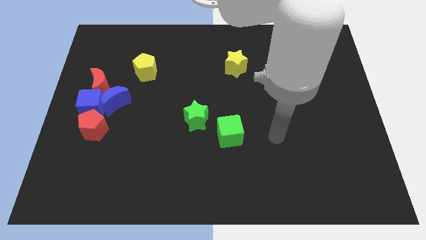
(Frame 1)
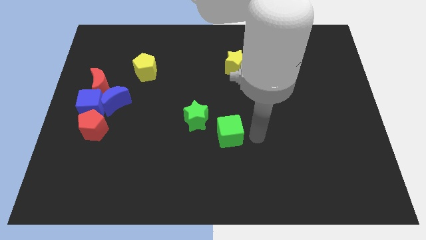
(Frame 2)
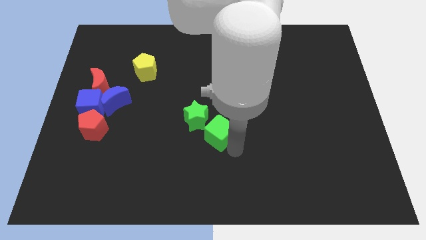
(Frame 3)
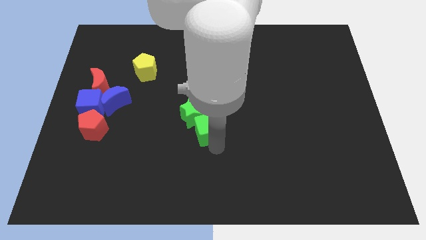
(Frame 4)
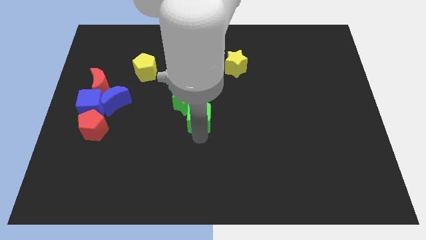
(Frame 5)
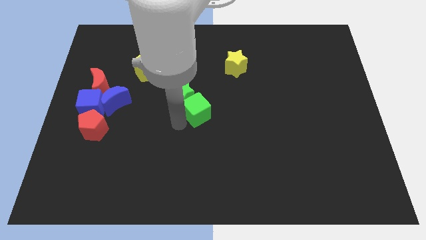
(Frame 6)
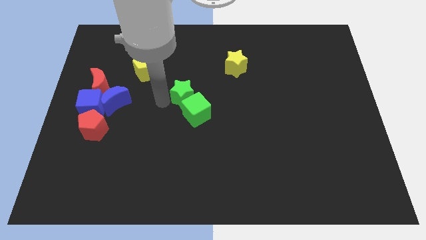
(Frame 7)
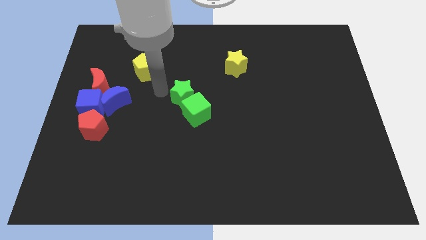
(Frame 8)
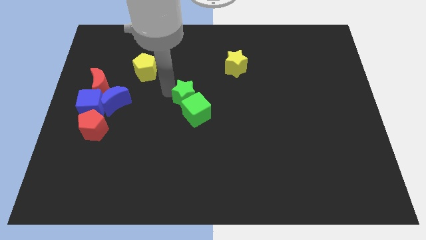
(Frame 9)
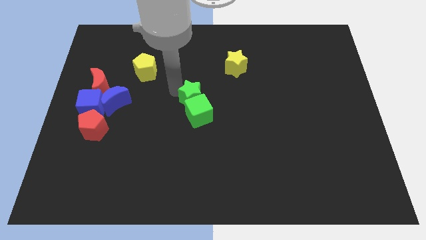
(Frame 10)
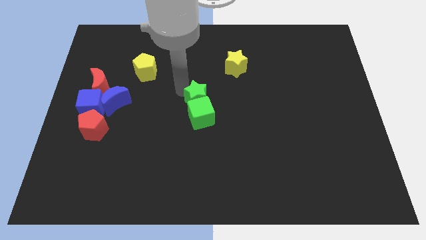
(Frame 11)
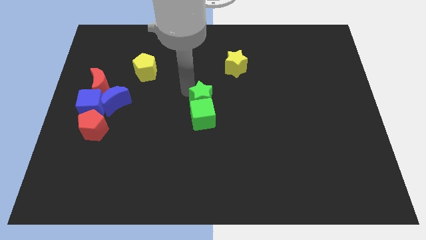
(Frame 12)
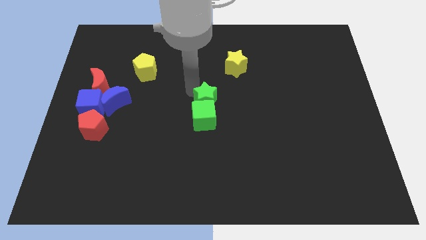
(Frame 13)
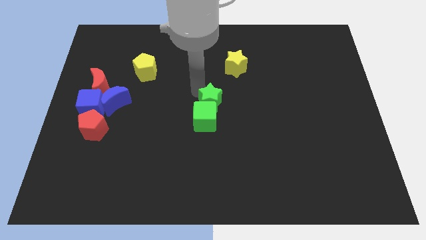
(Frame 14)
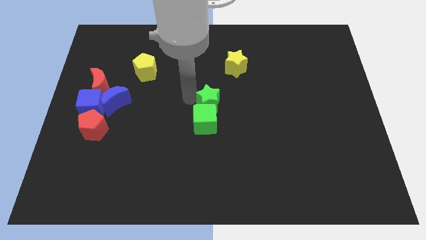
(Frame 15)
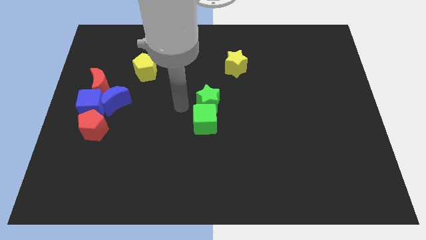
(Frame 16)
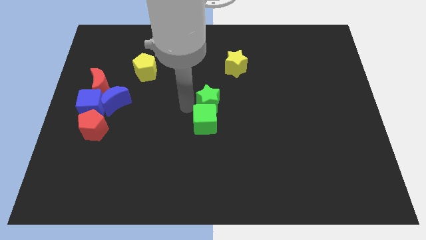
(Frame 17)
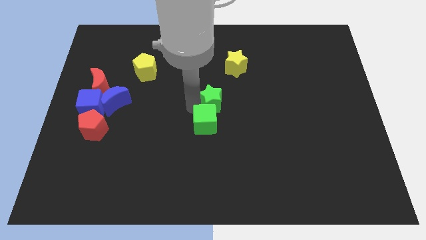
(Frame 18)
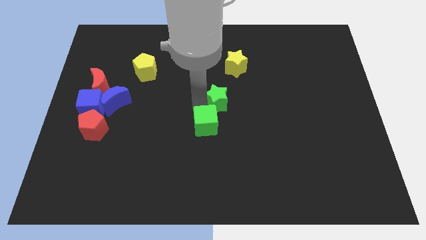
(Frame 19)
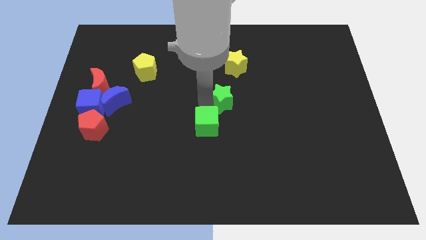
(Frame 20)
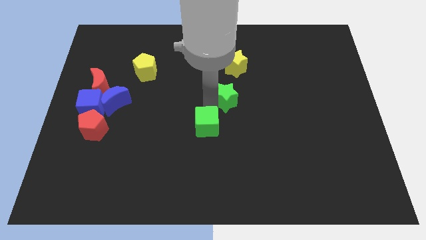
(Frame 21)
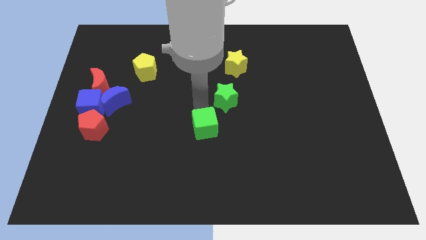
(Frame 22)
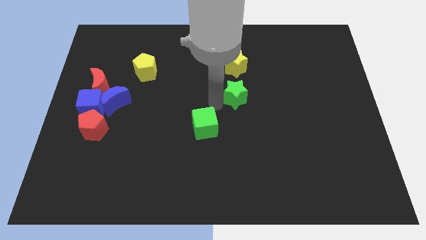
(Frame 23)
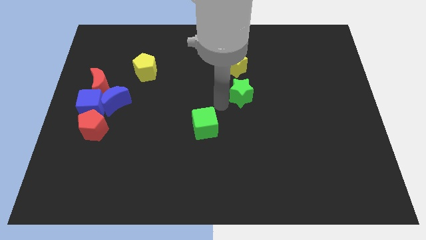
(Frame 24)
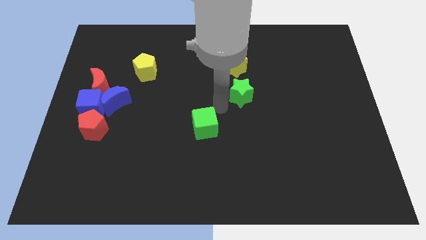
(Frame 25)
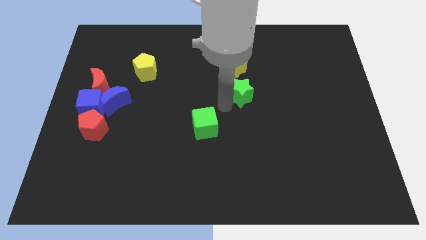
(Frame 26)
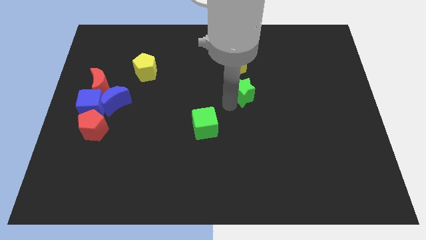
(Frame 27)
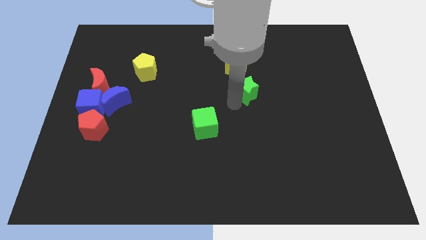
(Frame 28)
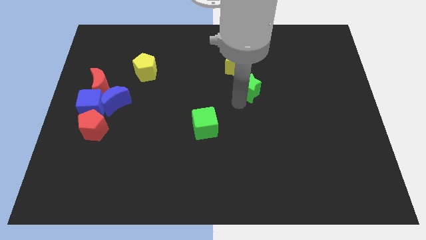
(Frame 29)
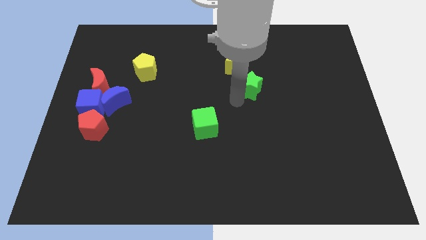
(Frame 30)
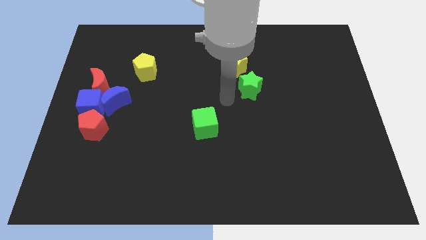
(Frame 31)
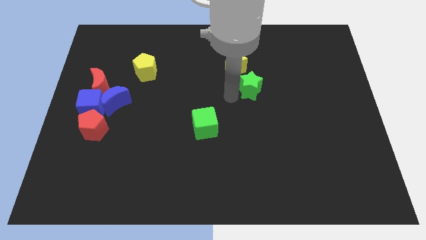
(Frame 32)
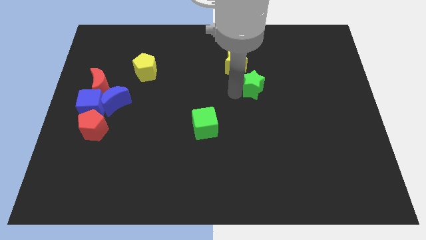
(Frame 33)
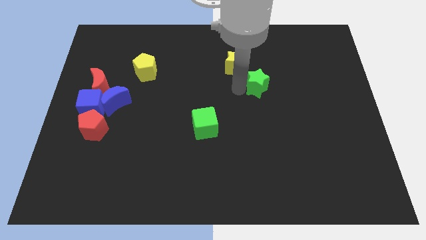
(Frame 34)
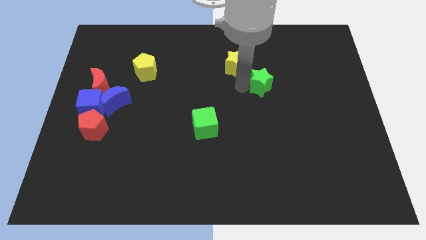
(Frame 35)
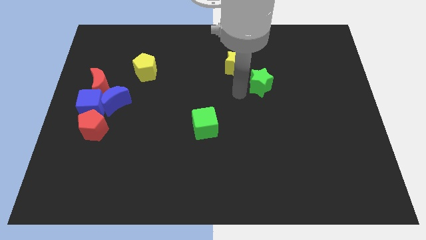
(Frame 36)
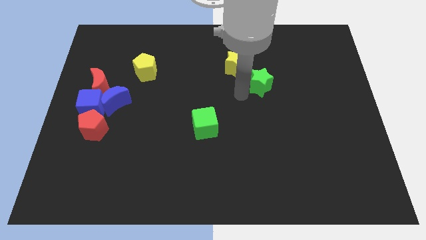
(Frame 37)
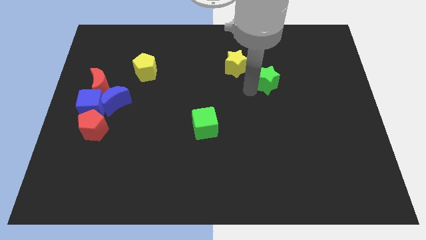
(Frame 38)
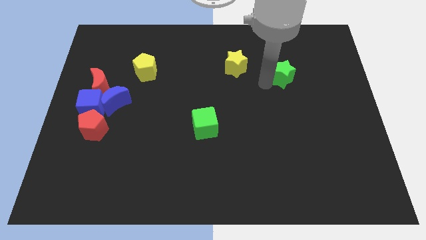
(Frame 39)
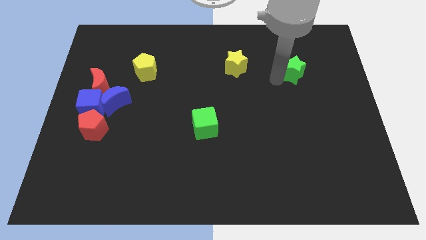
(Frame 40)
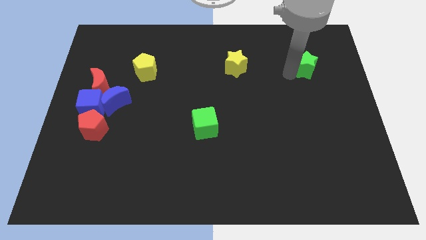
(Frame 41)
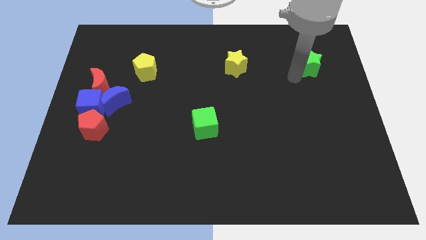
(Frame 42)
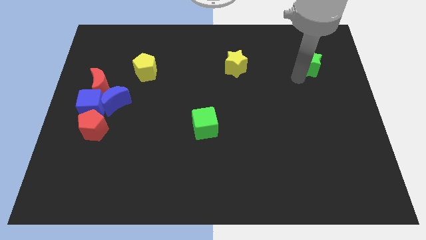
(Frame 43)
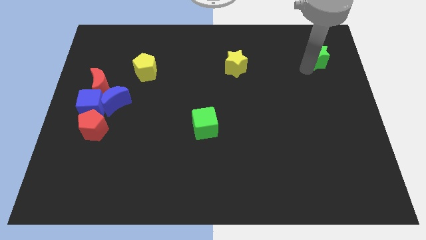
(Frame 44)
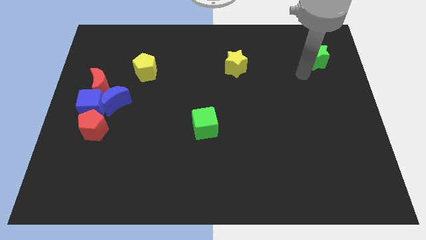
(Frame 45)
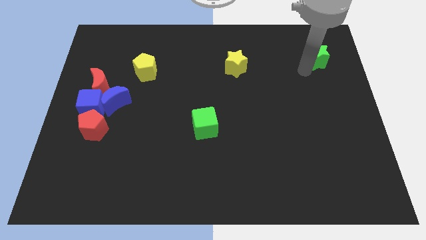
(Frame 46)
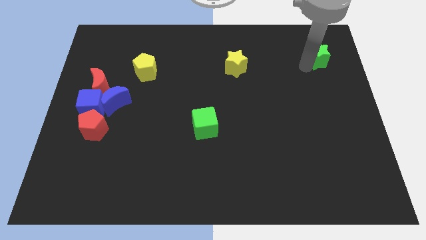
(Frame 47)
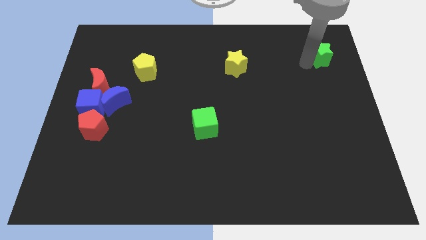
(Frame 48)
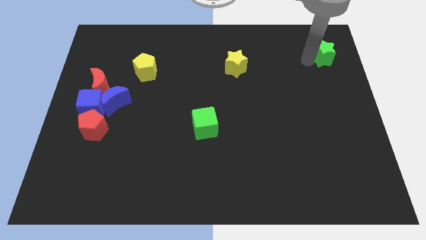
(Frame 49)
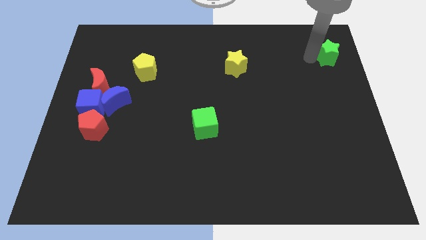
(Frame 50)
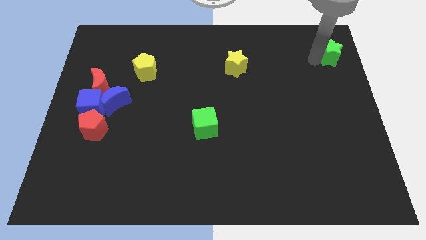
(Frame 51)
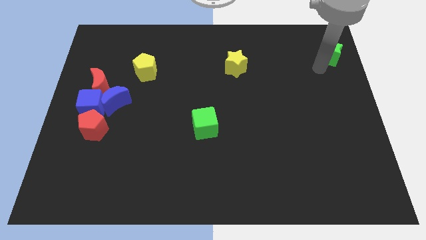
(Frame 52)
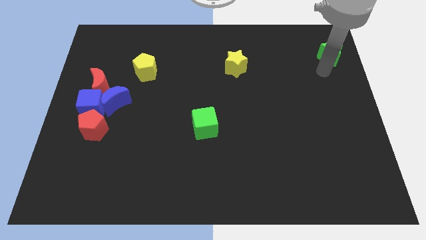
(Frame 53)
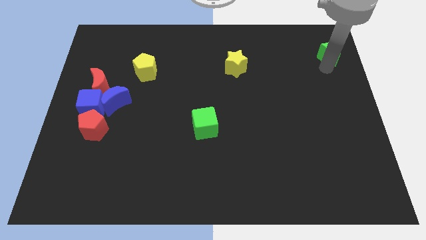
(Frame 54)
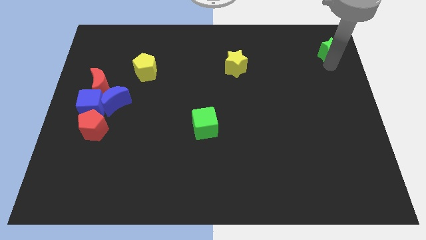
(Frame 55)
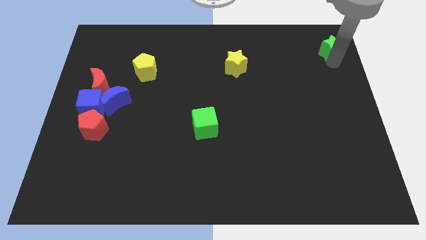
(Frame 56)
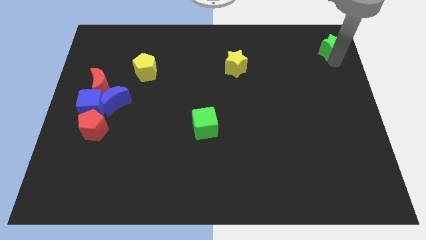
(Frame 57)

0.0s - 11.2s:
slide the green star to the top right of the board

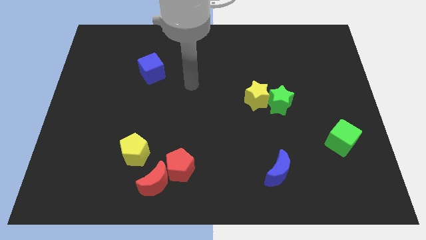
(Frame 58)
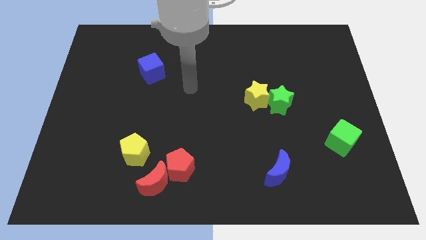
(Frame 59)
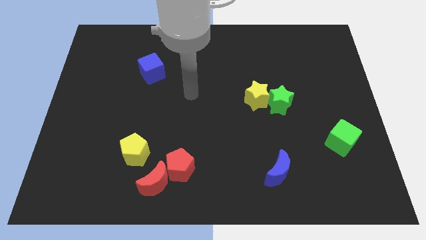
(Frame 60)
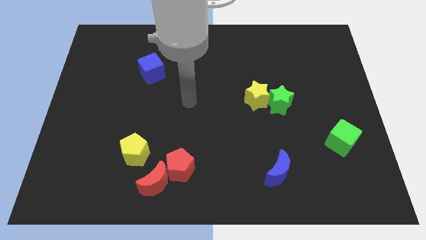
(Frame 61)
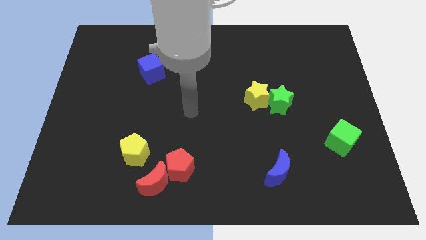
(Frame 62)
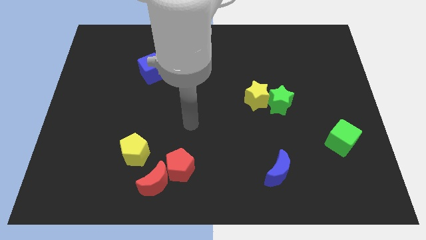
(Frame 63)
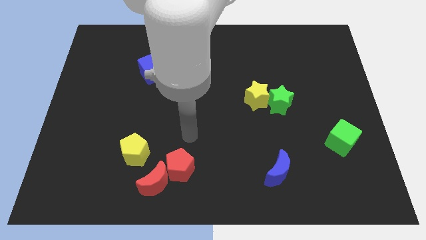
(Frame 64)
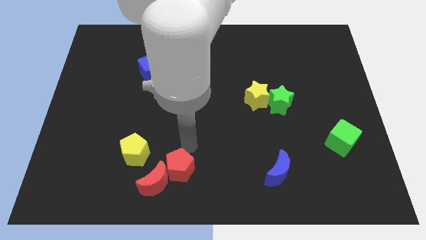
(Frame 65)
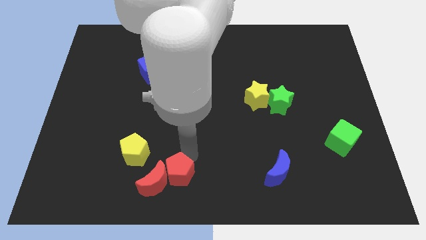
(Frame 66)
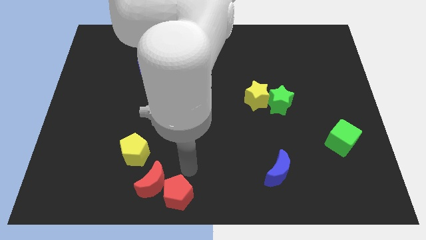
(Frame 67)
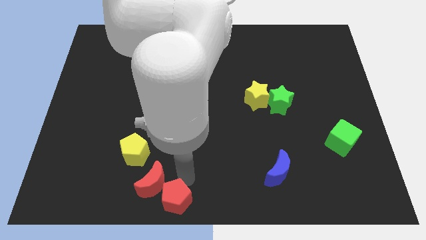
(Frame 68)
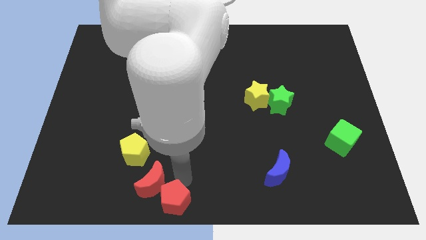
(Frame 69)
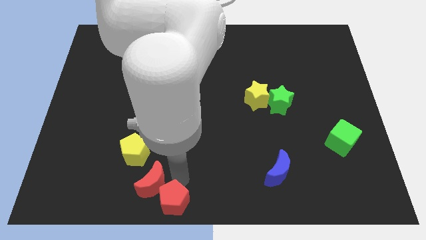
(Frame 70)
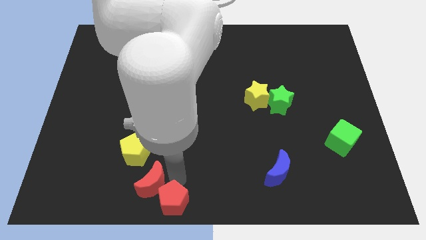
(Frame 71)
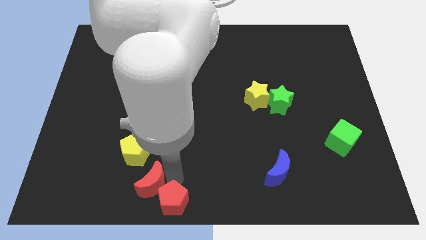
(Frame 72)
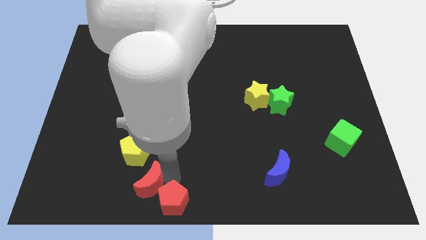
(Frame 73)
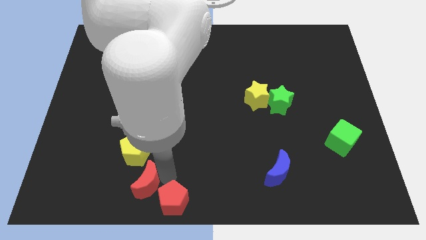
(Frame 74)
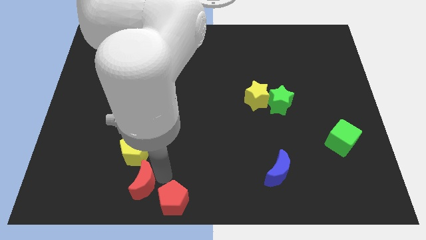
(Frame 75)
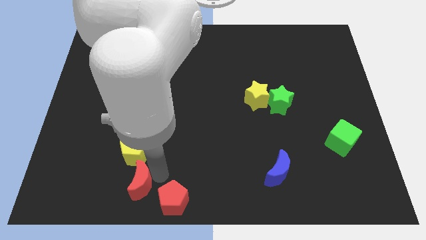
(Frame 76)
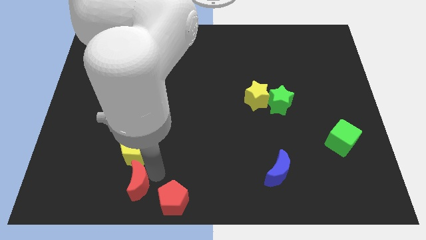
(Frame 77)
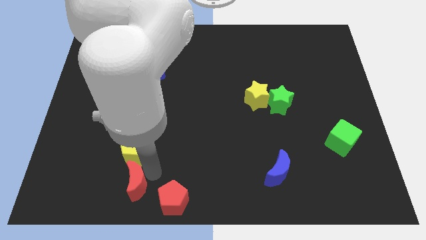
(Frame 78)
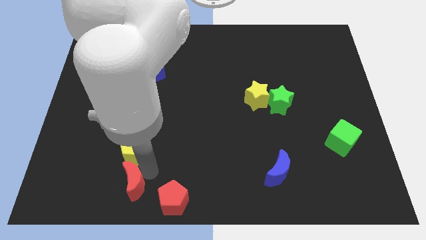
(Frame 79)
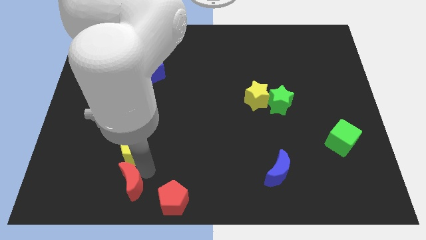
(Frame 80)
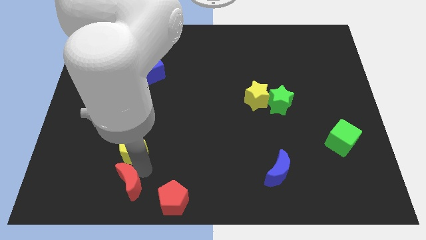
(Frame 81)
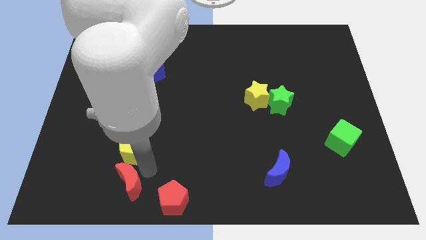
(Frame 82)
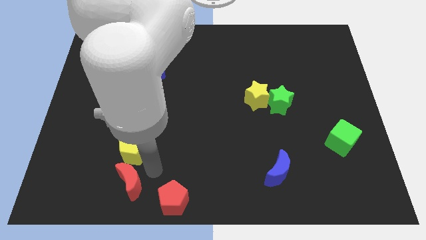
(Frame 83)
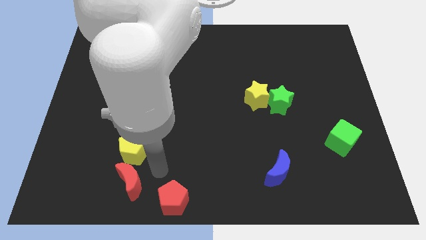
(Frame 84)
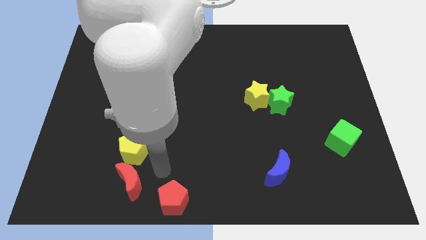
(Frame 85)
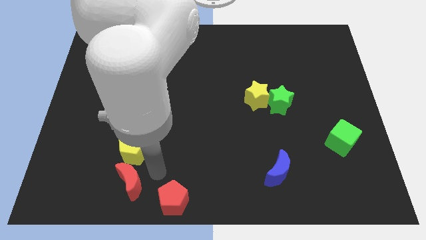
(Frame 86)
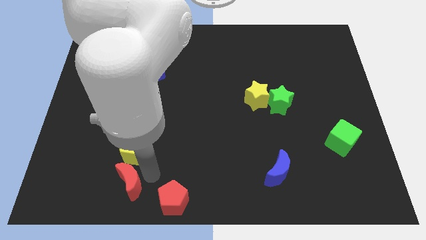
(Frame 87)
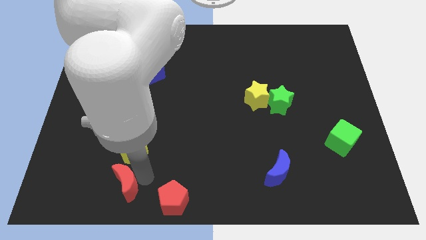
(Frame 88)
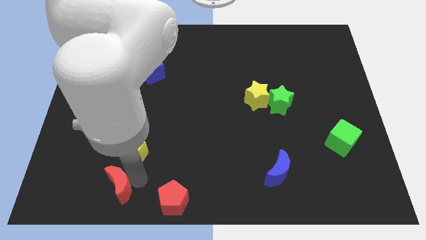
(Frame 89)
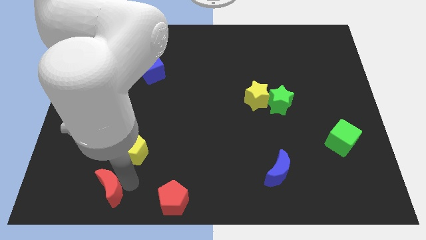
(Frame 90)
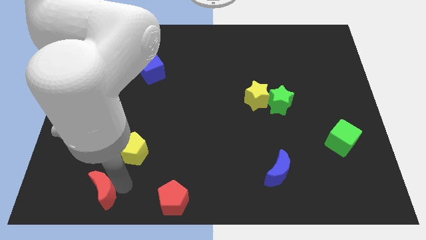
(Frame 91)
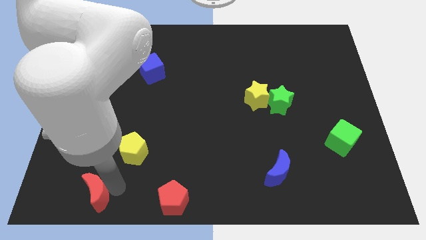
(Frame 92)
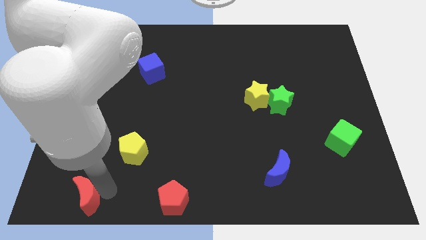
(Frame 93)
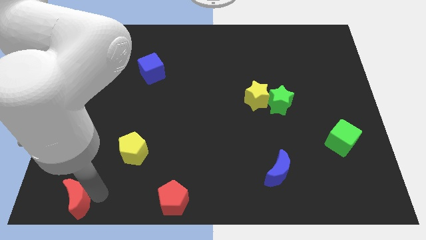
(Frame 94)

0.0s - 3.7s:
push the red moon to the bottom left of the board
